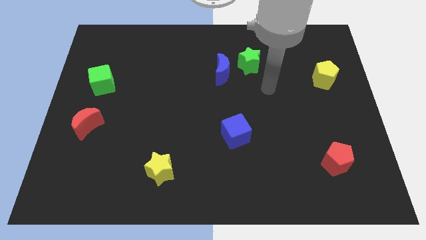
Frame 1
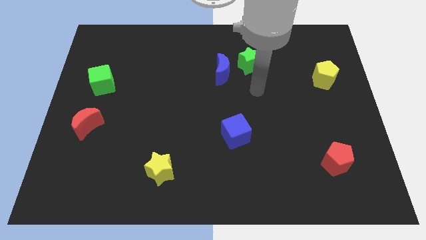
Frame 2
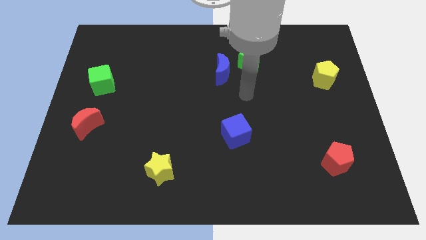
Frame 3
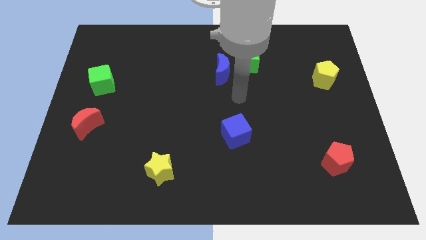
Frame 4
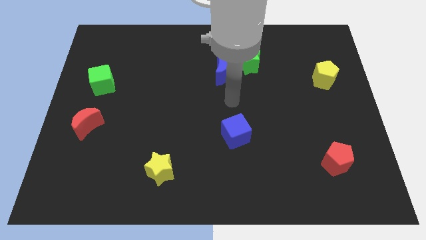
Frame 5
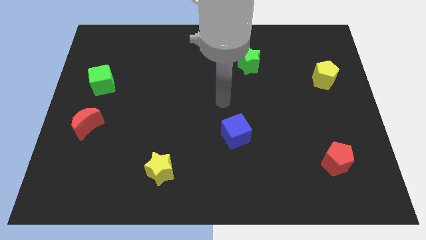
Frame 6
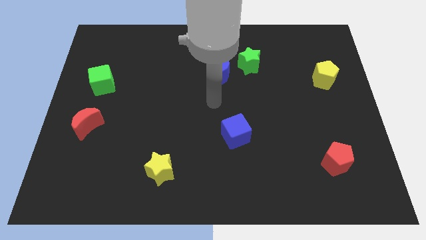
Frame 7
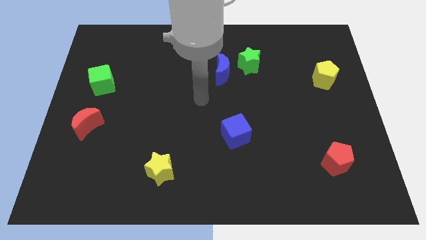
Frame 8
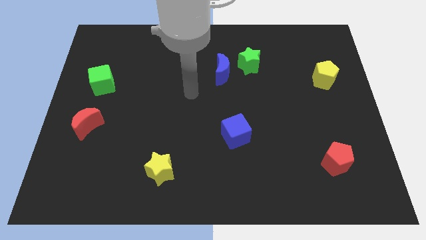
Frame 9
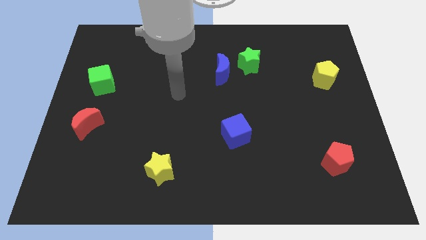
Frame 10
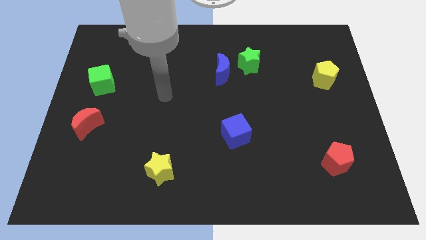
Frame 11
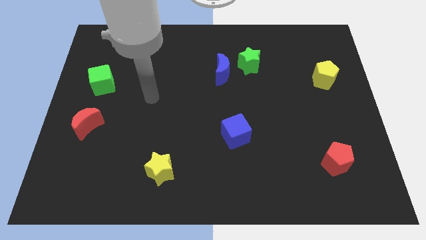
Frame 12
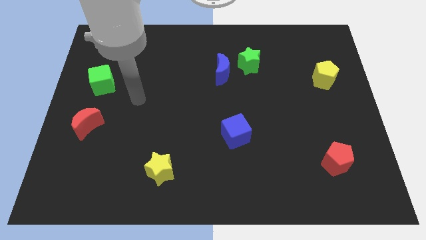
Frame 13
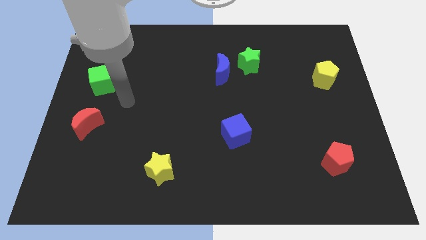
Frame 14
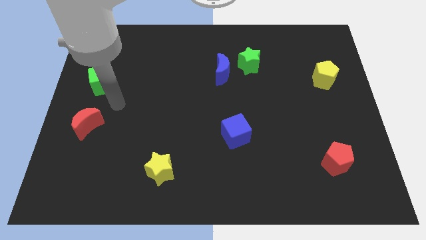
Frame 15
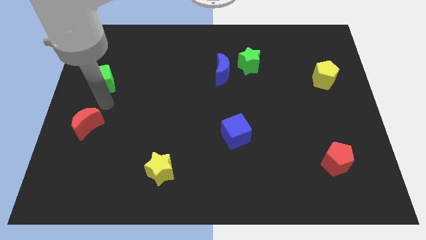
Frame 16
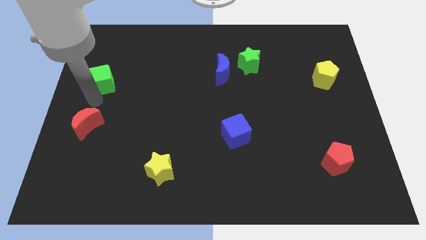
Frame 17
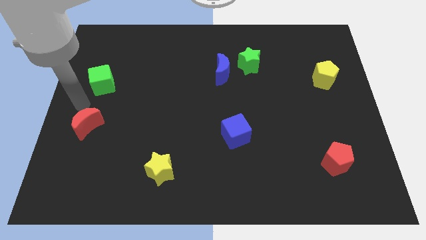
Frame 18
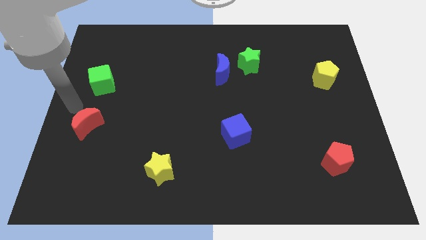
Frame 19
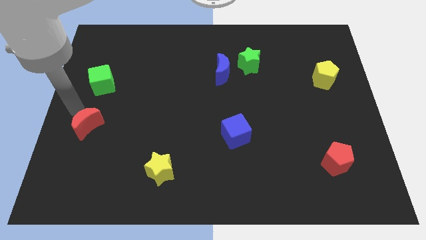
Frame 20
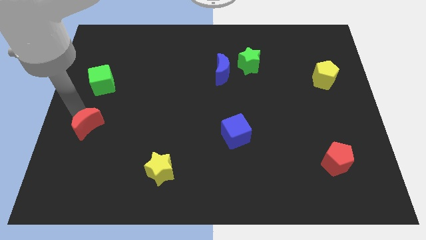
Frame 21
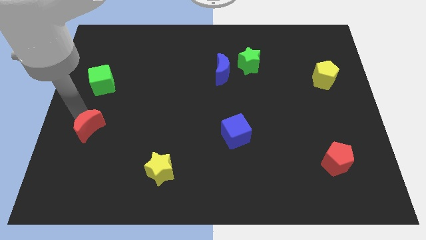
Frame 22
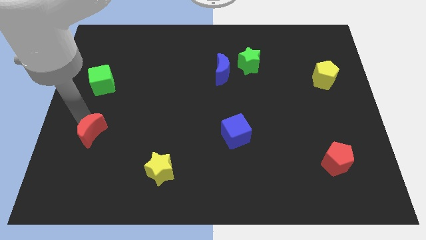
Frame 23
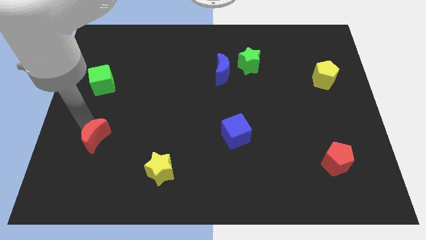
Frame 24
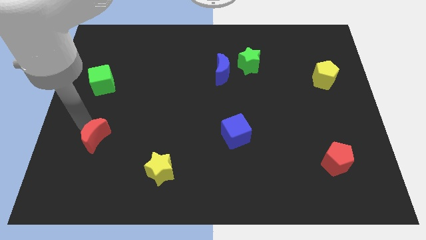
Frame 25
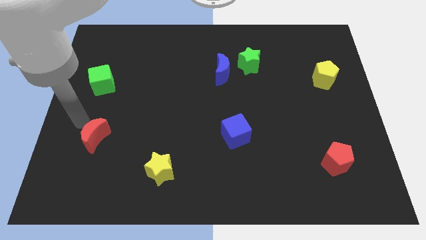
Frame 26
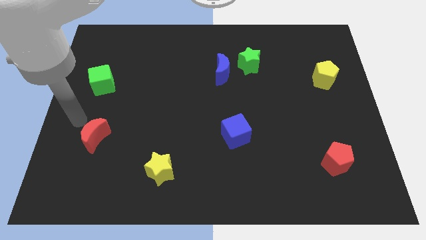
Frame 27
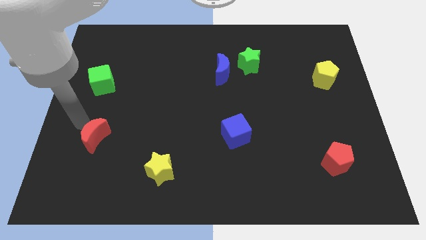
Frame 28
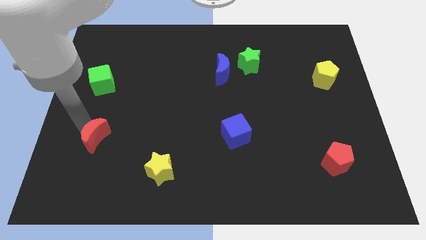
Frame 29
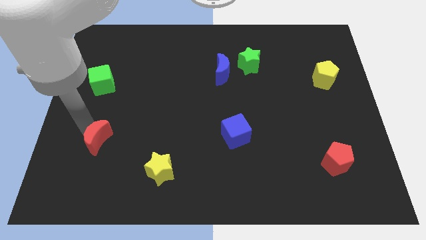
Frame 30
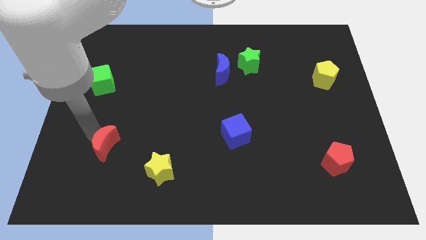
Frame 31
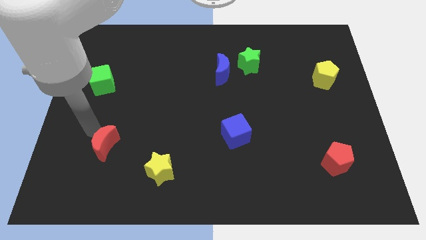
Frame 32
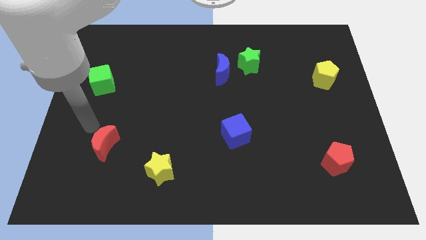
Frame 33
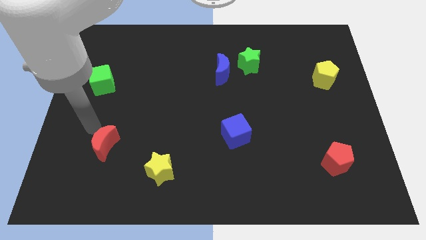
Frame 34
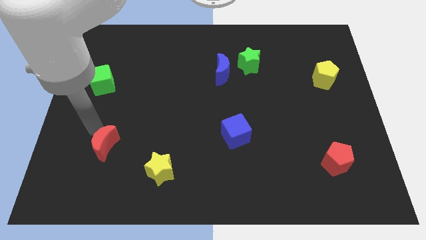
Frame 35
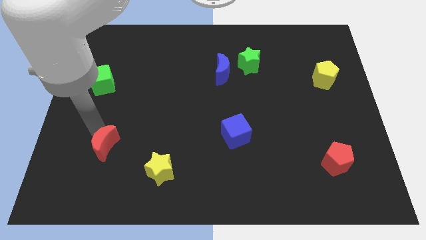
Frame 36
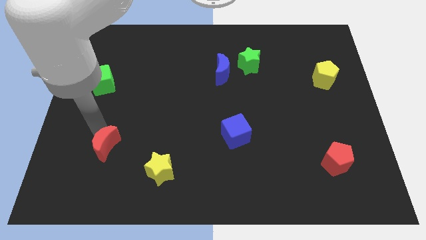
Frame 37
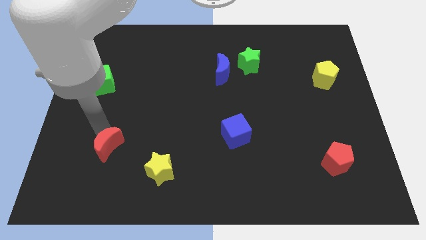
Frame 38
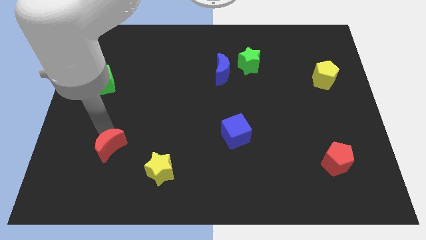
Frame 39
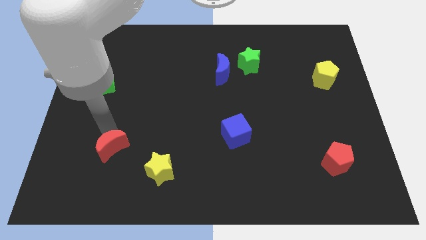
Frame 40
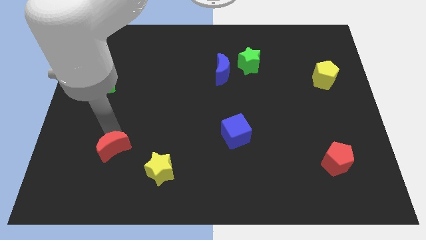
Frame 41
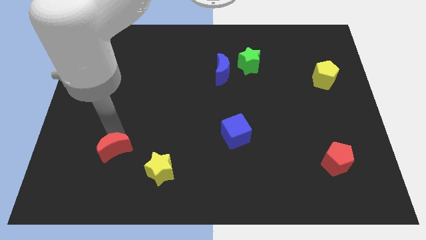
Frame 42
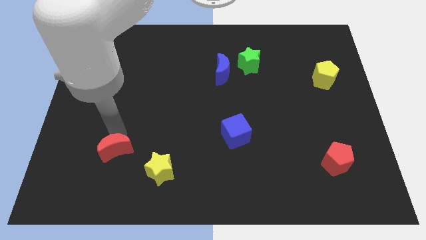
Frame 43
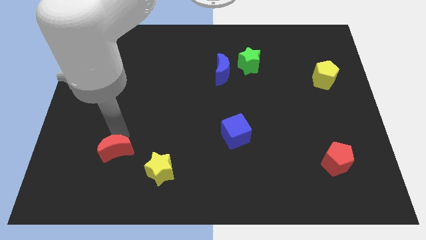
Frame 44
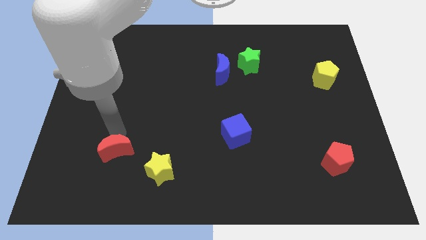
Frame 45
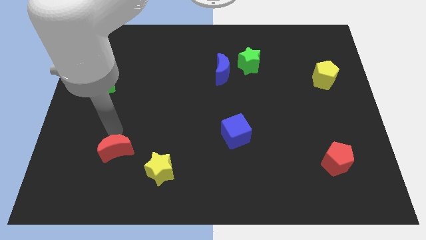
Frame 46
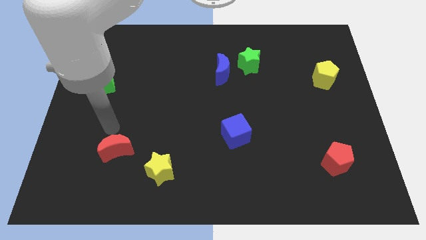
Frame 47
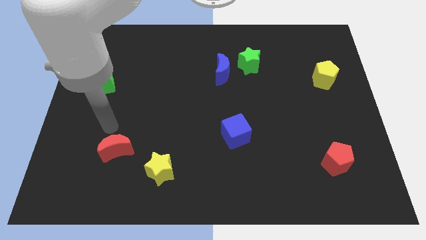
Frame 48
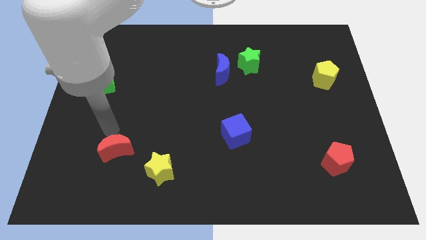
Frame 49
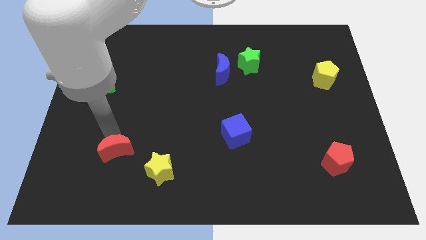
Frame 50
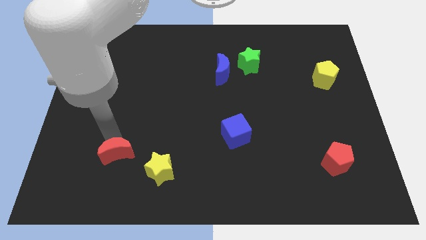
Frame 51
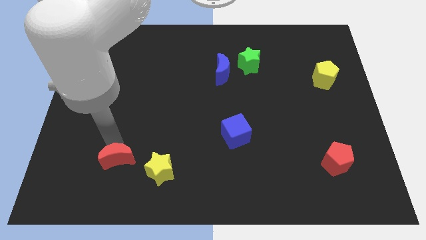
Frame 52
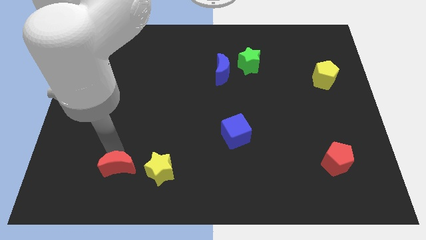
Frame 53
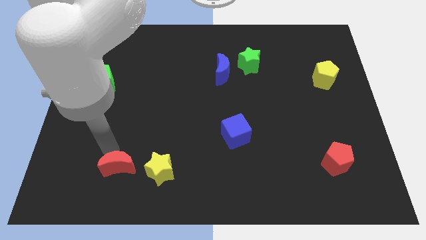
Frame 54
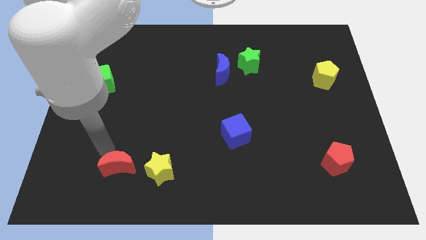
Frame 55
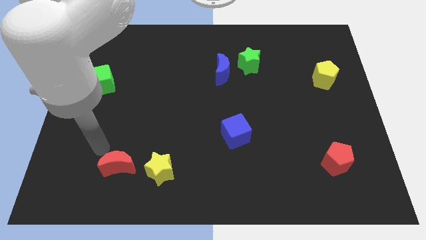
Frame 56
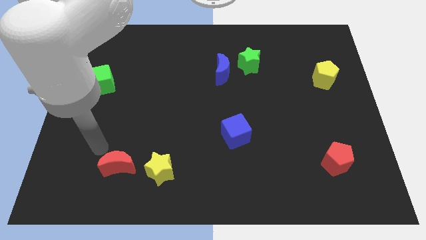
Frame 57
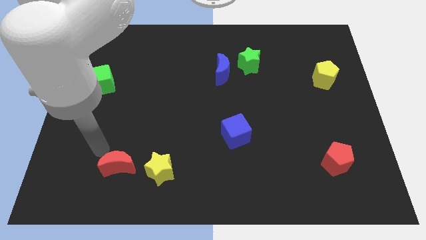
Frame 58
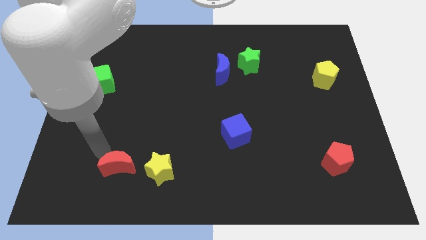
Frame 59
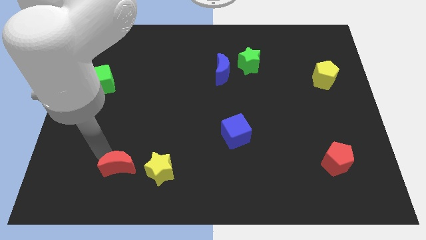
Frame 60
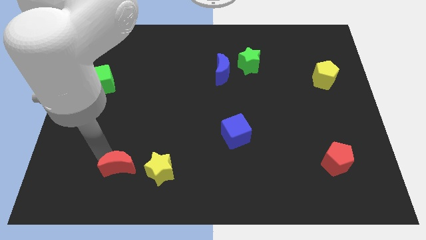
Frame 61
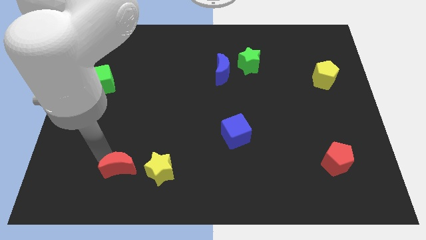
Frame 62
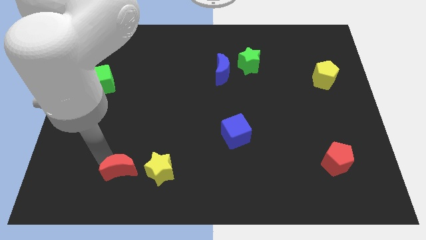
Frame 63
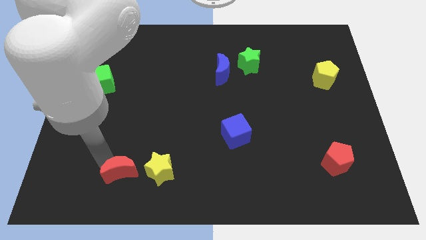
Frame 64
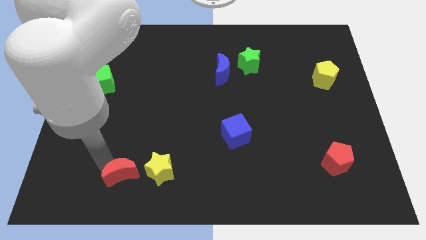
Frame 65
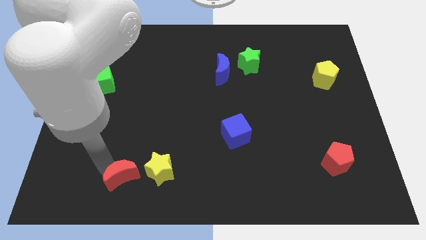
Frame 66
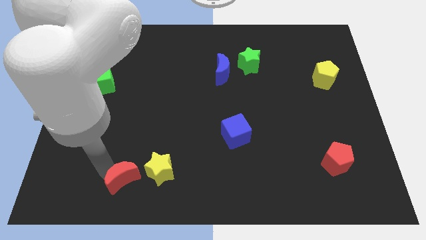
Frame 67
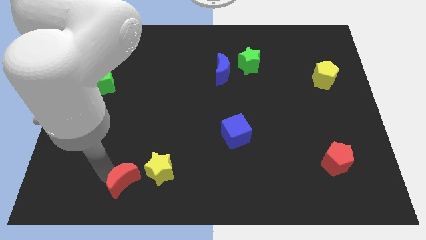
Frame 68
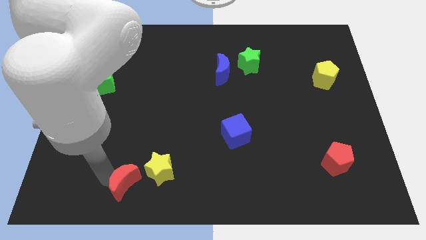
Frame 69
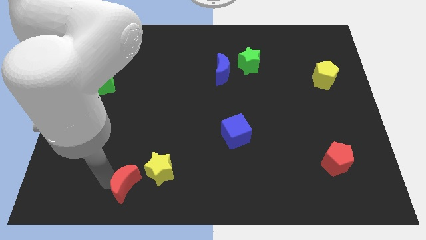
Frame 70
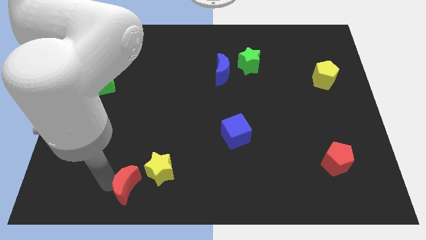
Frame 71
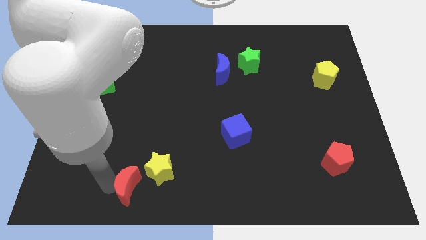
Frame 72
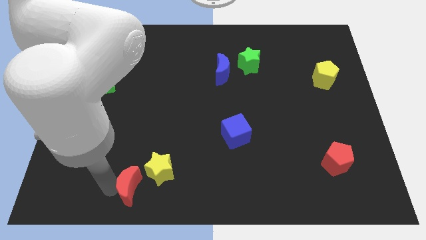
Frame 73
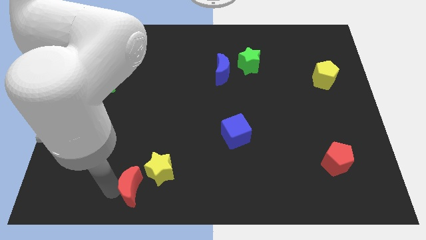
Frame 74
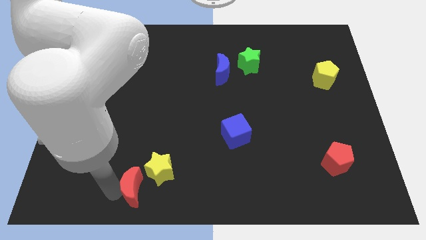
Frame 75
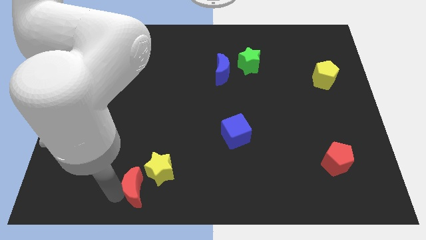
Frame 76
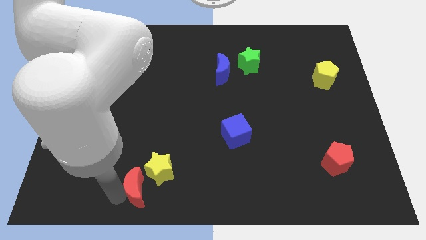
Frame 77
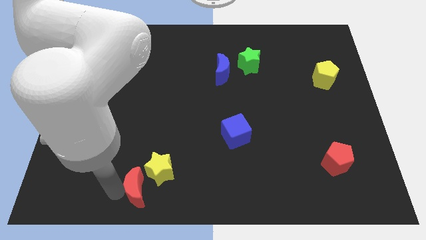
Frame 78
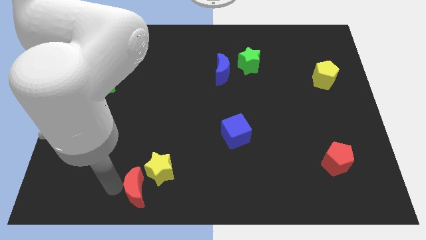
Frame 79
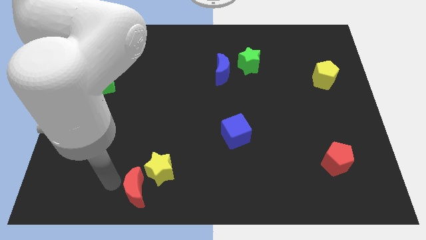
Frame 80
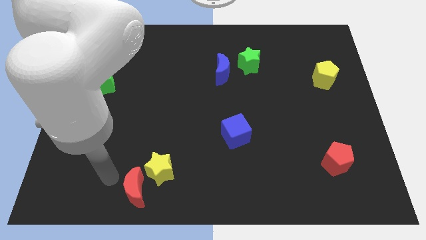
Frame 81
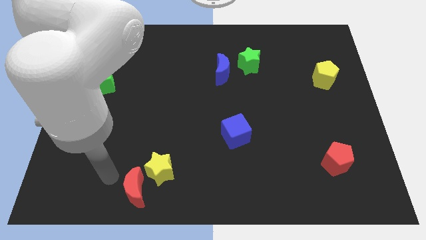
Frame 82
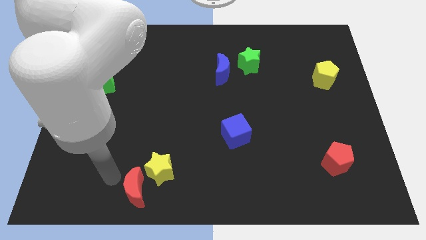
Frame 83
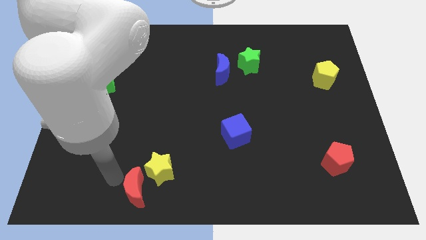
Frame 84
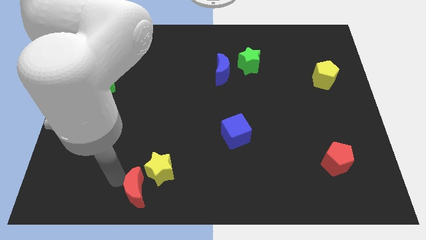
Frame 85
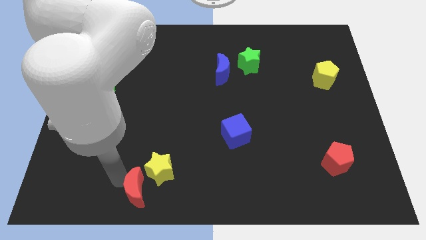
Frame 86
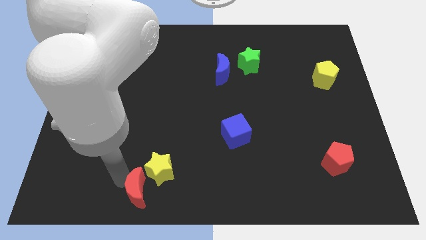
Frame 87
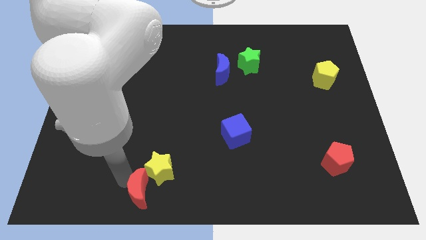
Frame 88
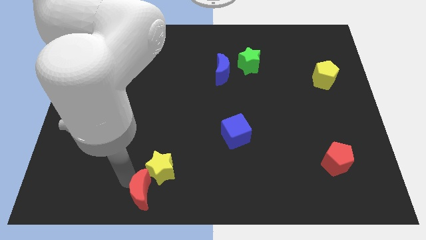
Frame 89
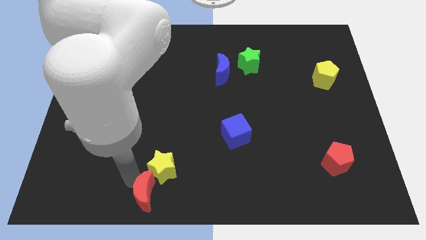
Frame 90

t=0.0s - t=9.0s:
move the red moon to the bottom side
